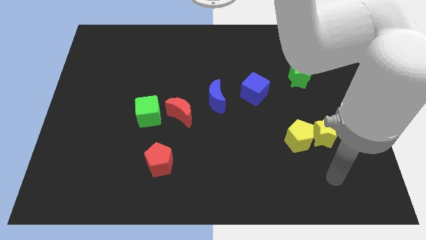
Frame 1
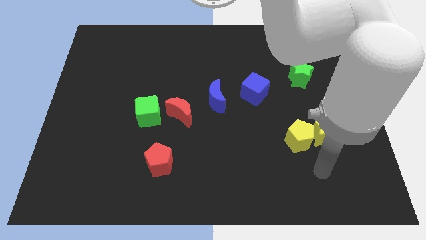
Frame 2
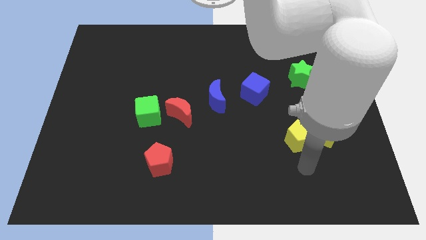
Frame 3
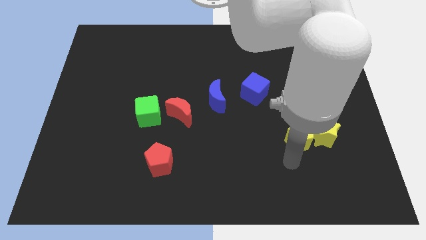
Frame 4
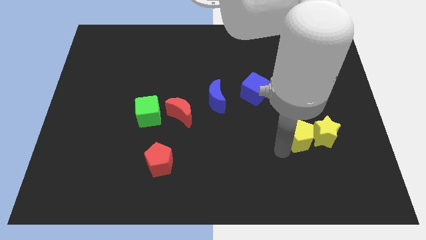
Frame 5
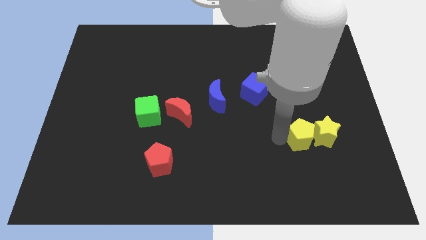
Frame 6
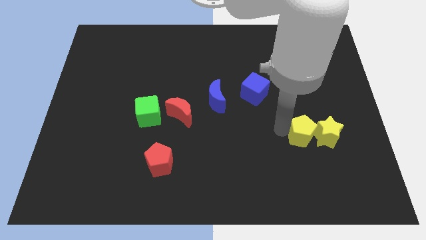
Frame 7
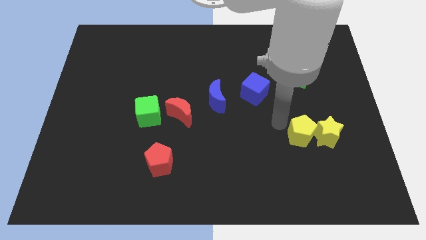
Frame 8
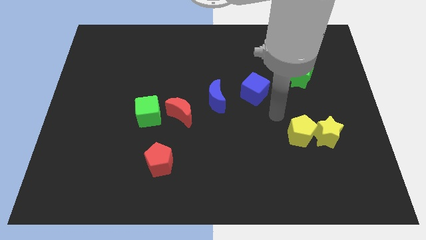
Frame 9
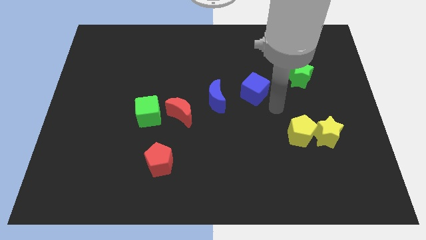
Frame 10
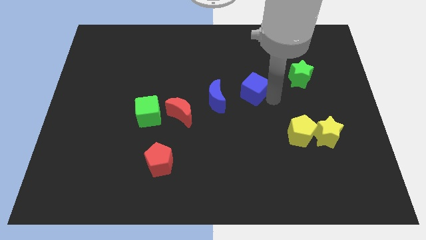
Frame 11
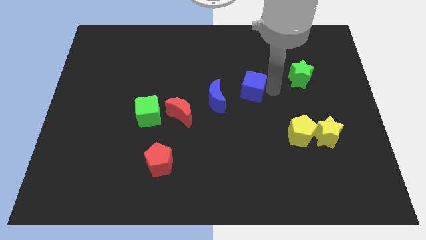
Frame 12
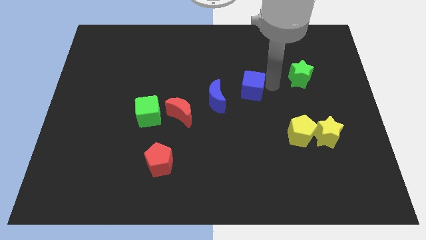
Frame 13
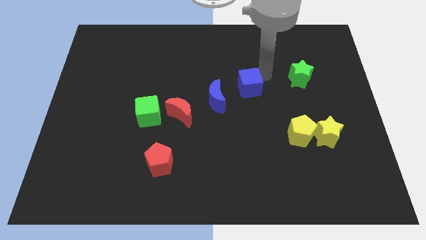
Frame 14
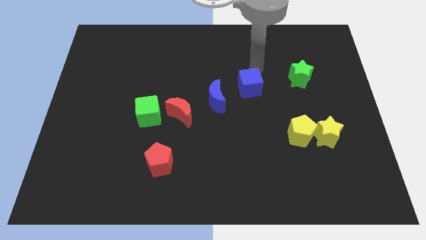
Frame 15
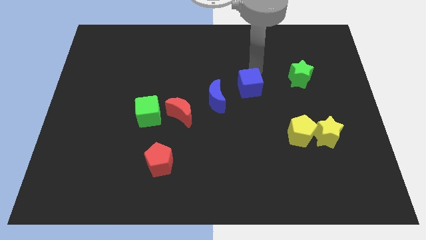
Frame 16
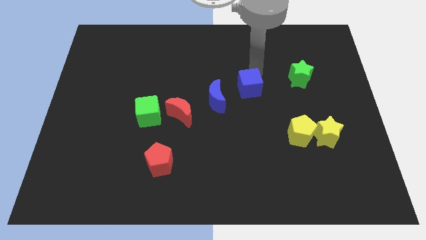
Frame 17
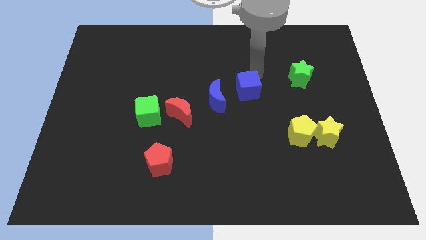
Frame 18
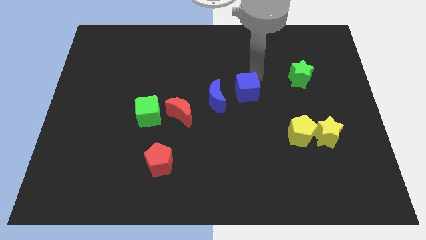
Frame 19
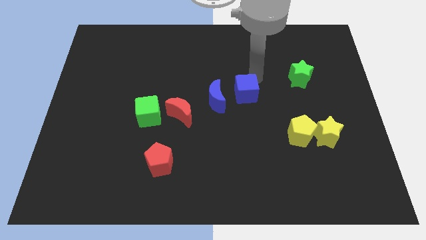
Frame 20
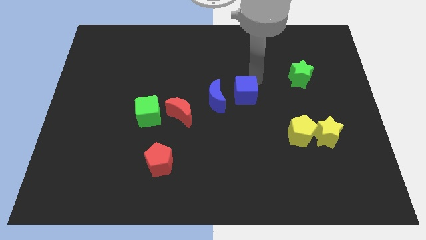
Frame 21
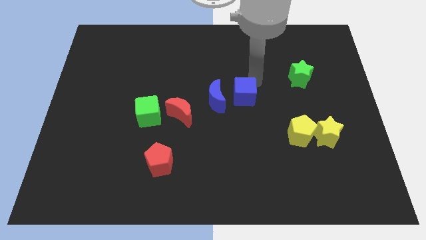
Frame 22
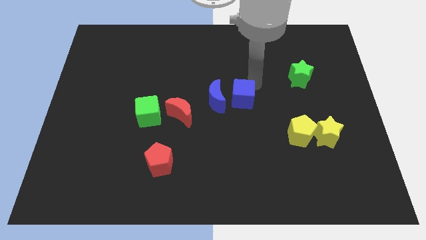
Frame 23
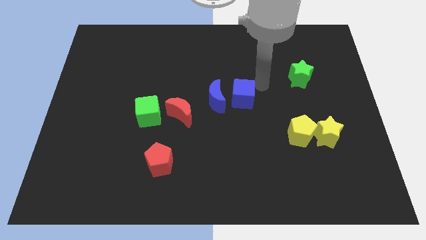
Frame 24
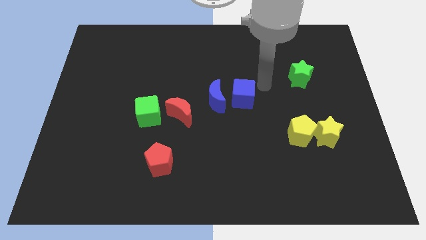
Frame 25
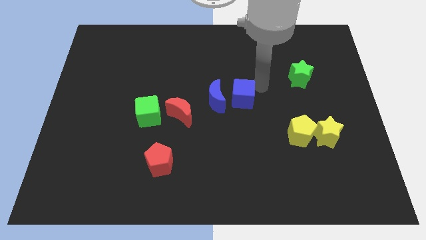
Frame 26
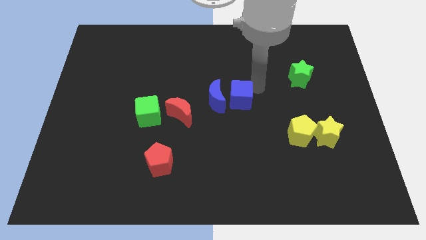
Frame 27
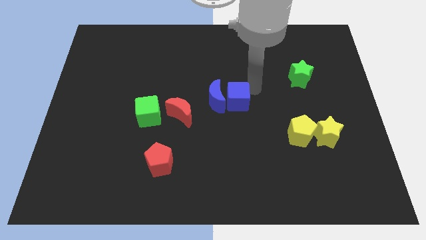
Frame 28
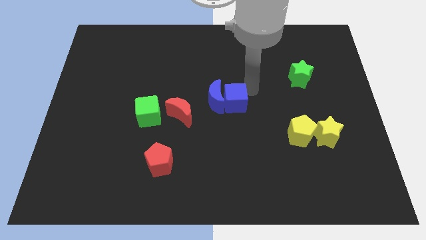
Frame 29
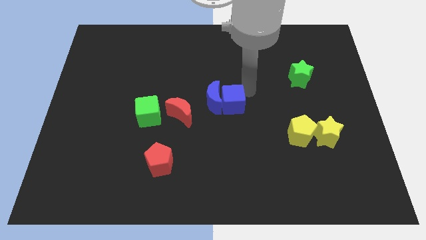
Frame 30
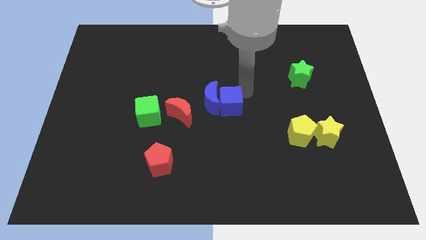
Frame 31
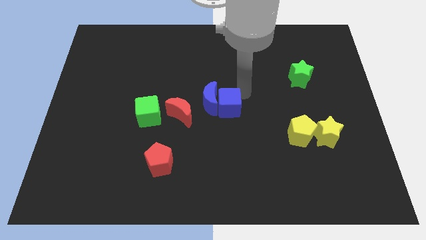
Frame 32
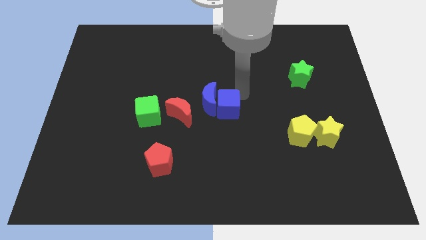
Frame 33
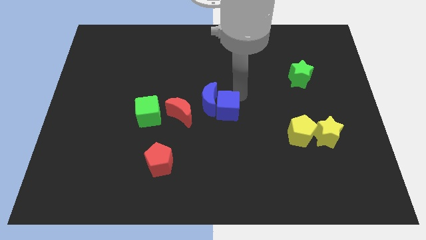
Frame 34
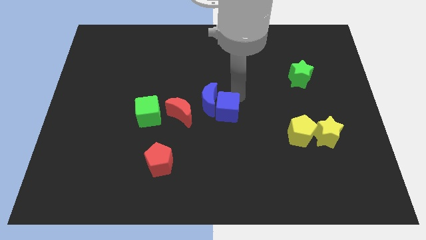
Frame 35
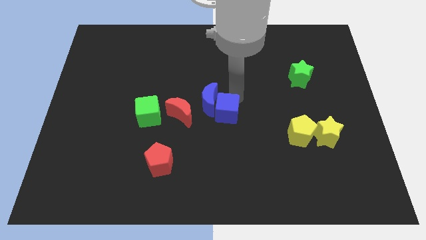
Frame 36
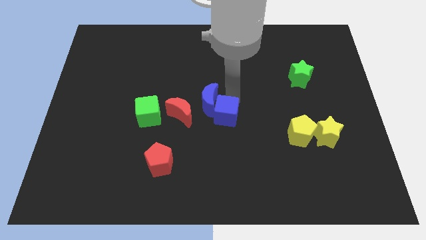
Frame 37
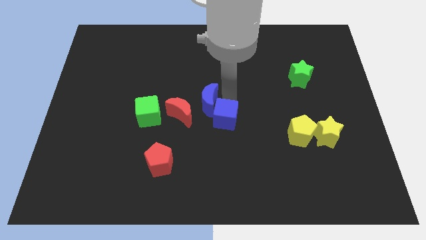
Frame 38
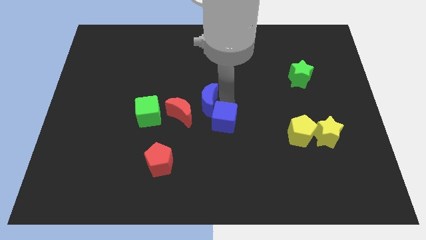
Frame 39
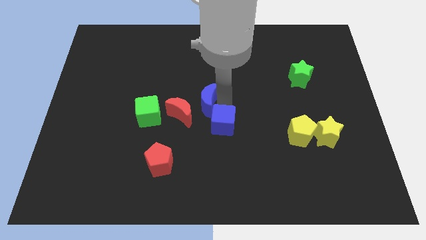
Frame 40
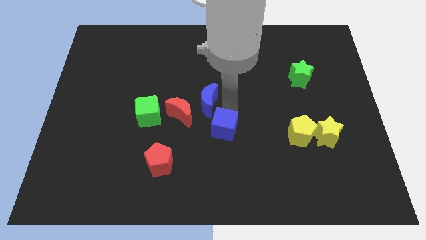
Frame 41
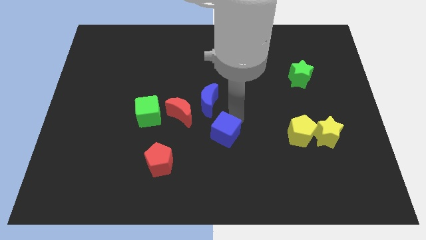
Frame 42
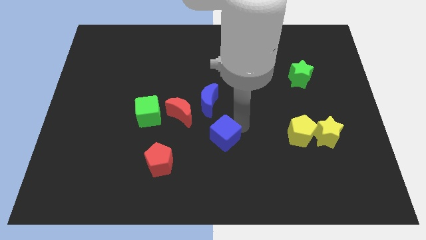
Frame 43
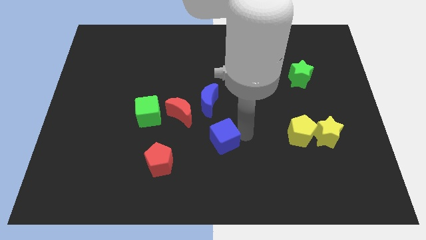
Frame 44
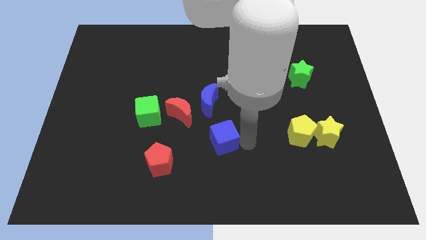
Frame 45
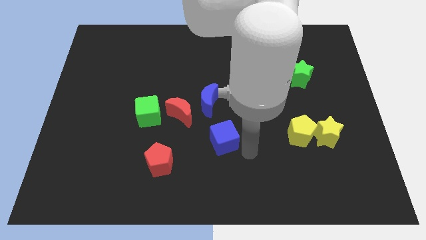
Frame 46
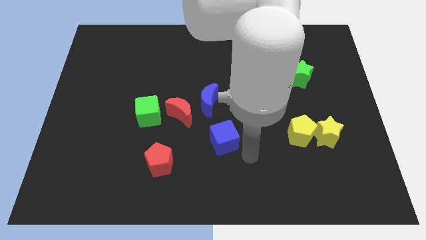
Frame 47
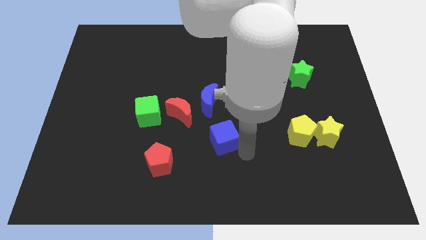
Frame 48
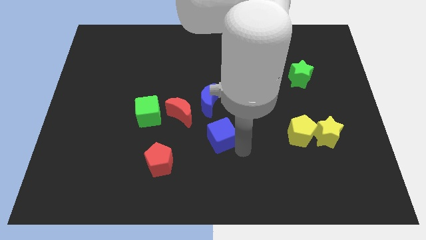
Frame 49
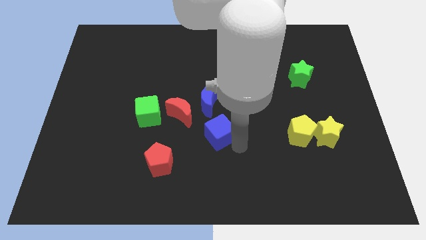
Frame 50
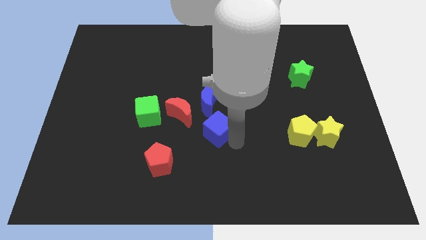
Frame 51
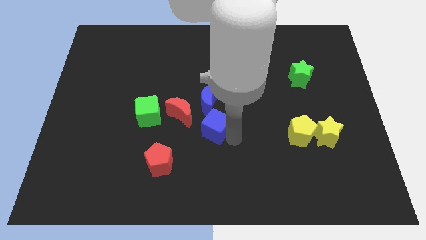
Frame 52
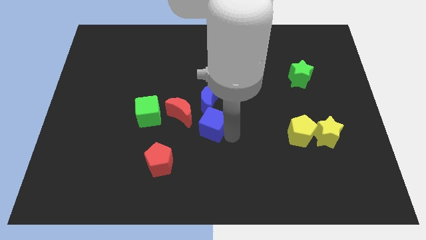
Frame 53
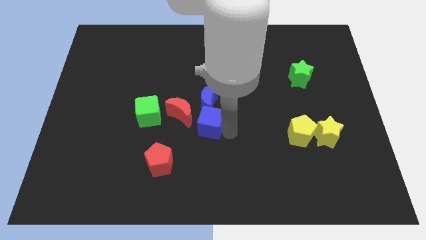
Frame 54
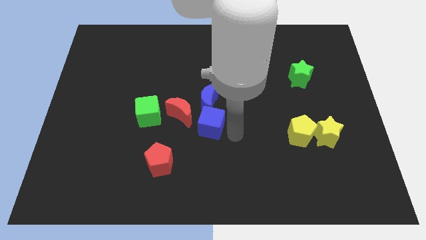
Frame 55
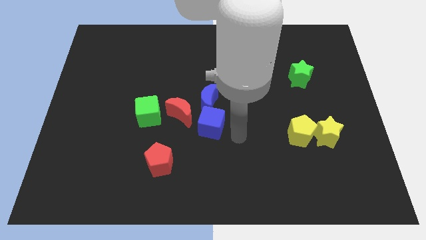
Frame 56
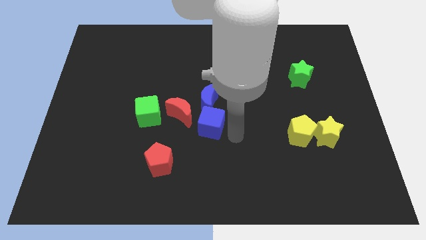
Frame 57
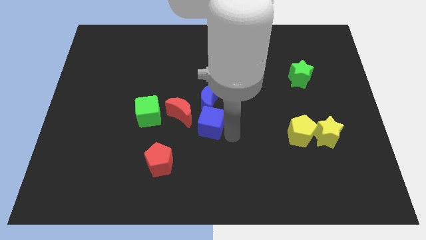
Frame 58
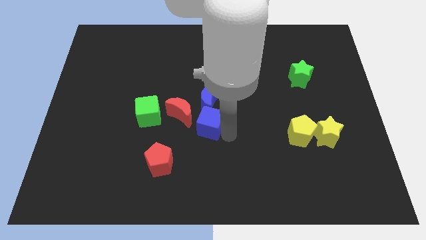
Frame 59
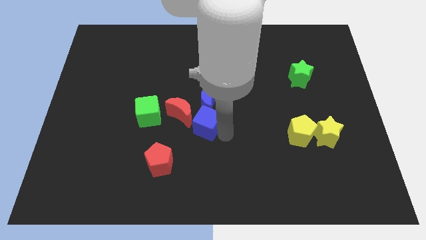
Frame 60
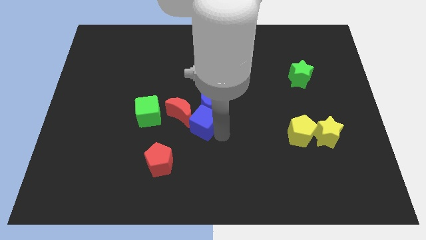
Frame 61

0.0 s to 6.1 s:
push the blue cube towards the red moon
